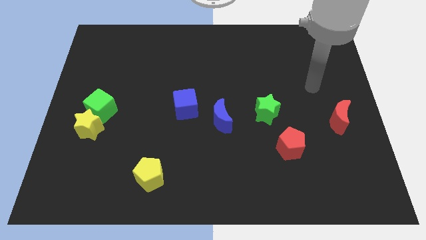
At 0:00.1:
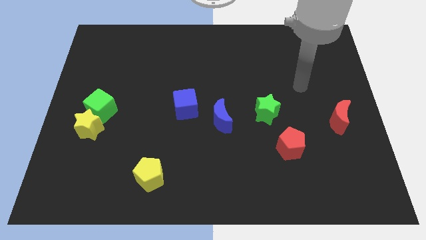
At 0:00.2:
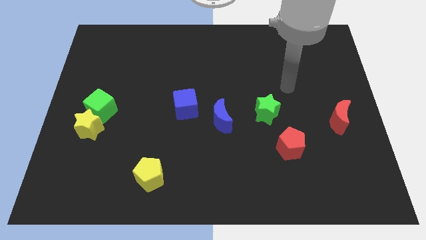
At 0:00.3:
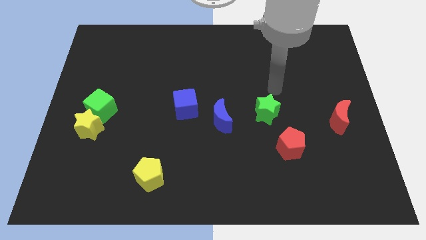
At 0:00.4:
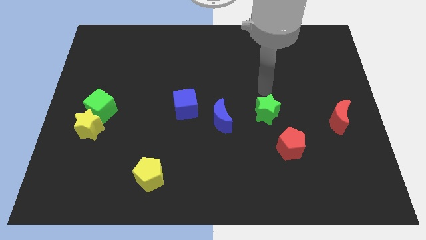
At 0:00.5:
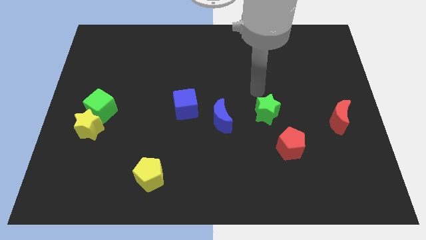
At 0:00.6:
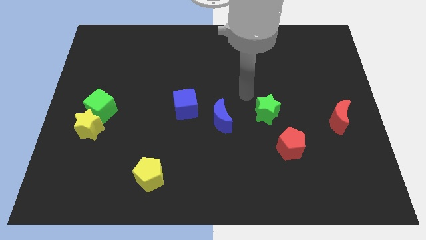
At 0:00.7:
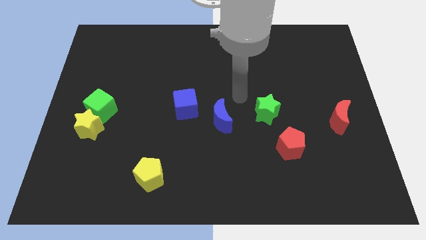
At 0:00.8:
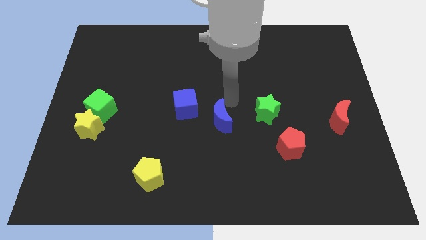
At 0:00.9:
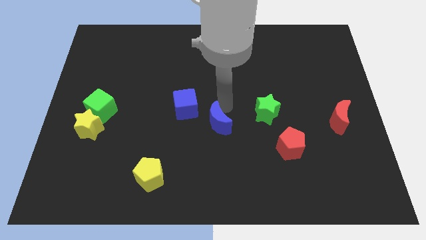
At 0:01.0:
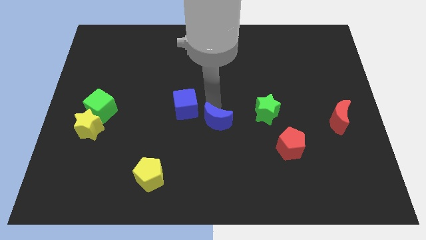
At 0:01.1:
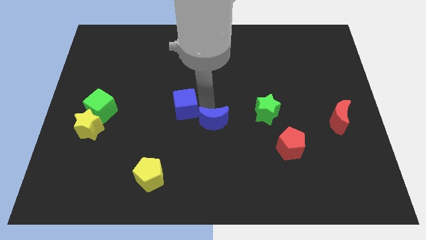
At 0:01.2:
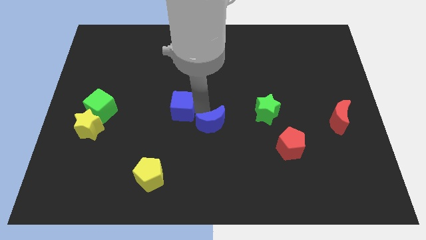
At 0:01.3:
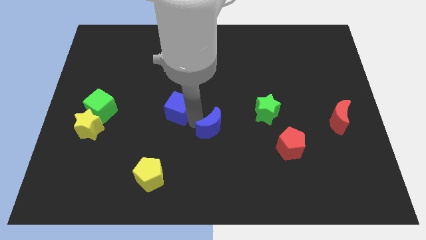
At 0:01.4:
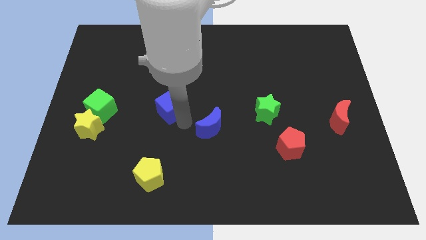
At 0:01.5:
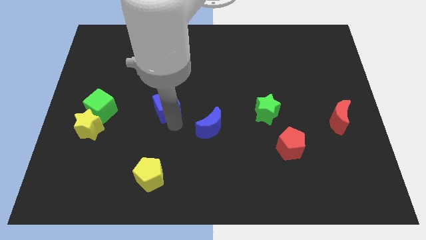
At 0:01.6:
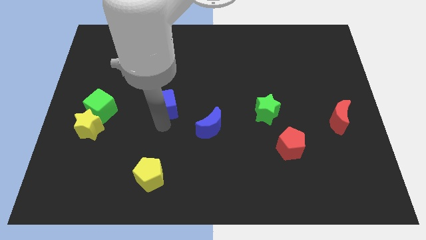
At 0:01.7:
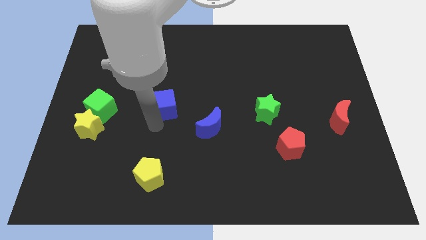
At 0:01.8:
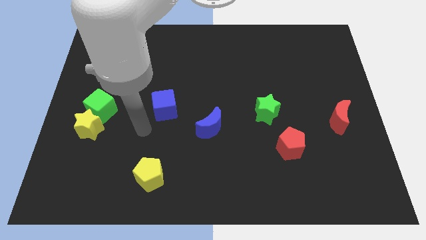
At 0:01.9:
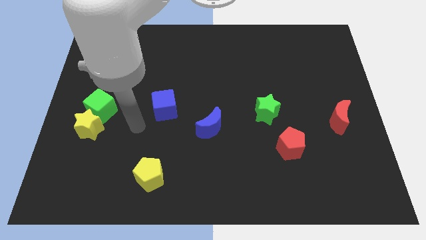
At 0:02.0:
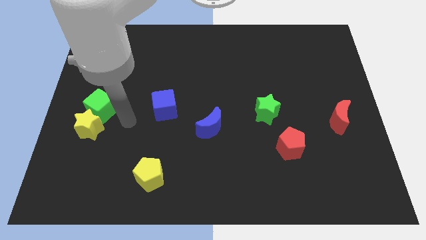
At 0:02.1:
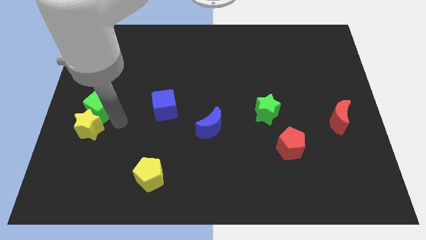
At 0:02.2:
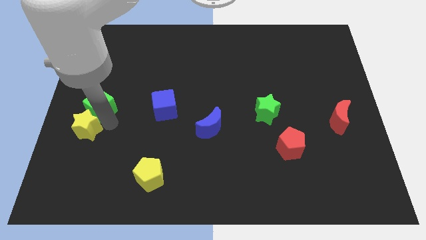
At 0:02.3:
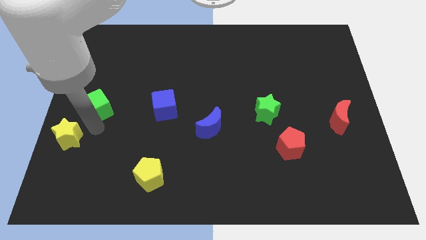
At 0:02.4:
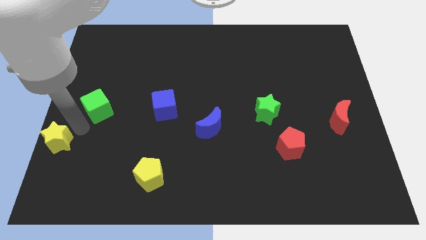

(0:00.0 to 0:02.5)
separate the green cube from the yellow star

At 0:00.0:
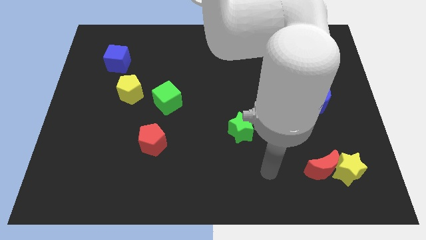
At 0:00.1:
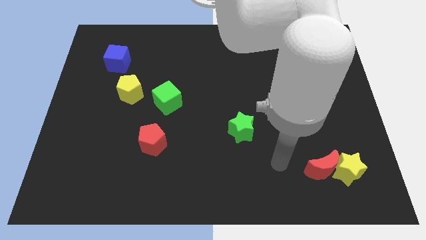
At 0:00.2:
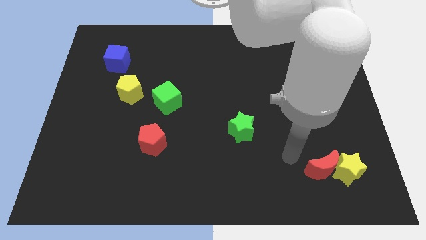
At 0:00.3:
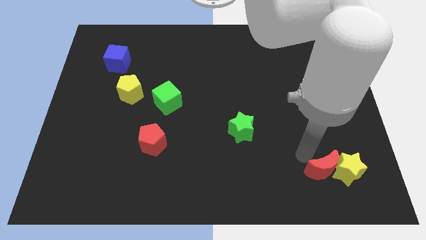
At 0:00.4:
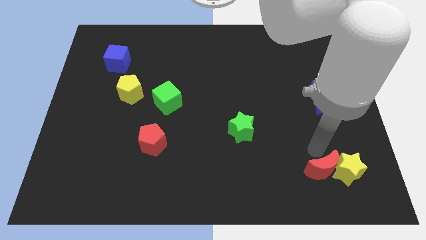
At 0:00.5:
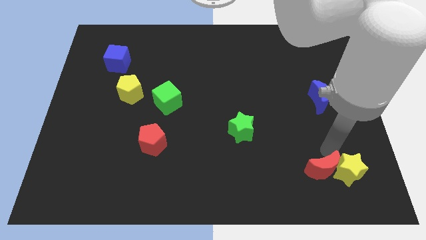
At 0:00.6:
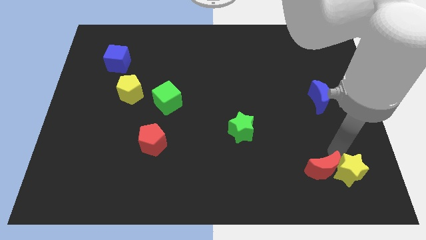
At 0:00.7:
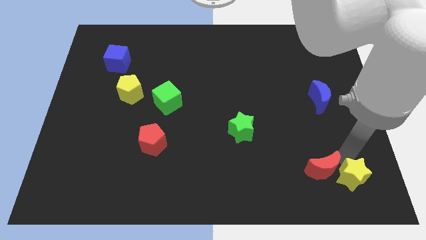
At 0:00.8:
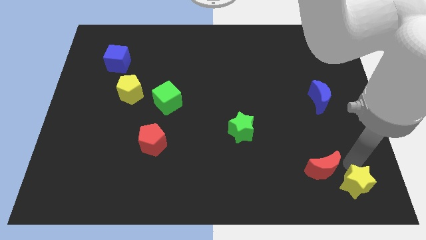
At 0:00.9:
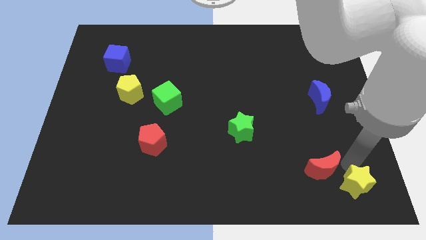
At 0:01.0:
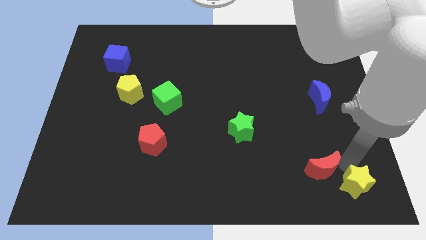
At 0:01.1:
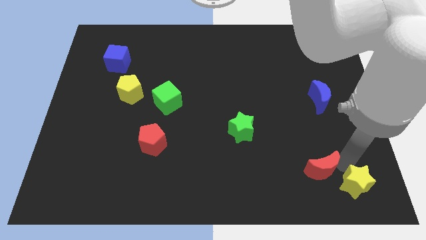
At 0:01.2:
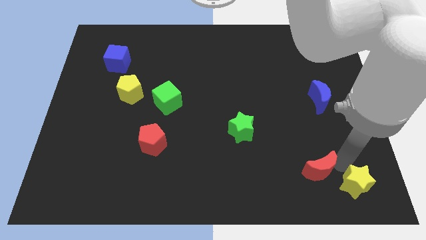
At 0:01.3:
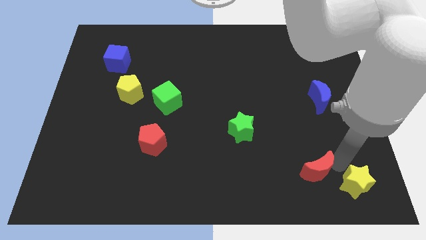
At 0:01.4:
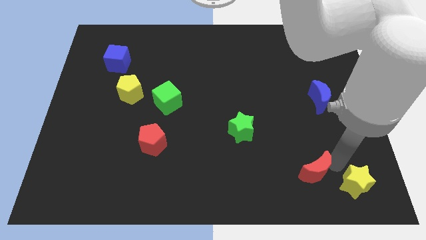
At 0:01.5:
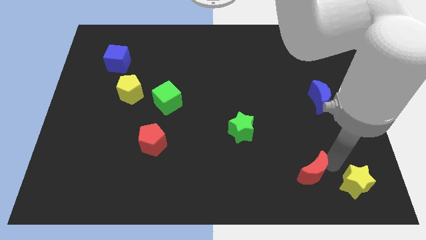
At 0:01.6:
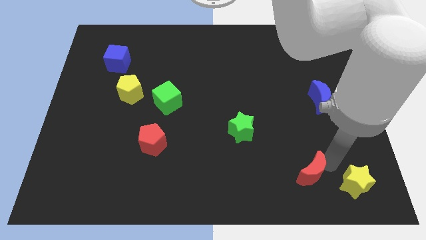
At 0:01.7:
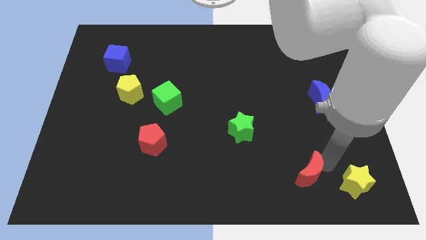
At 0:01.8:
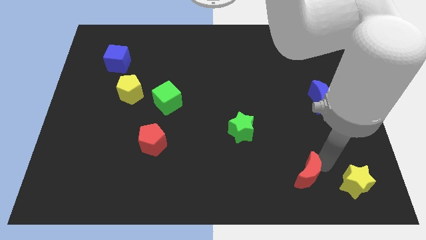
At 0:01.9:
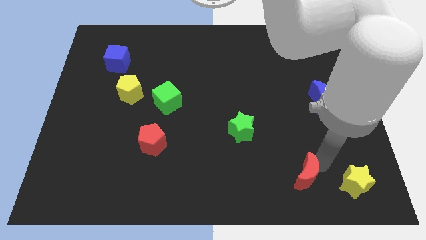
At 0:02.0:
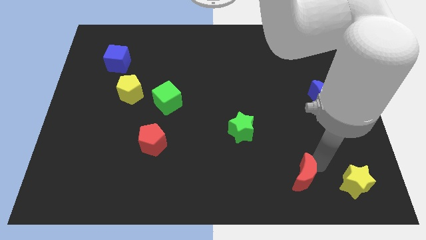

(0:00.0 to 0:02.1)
move the red moon away from the yellow star

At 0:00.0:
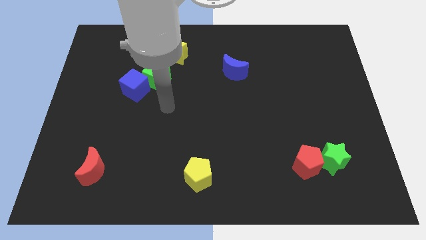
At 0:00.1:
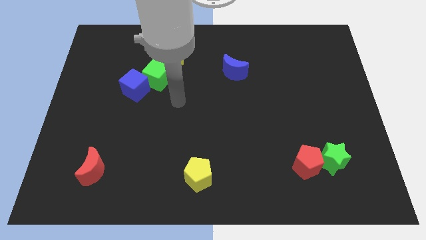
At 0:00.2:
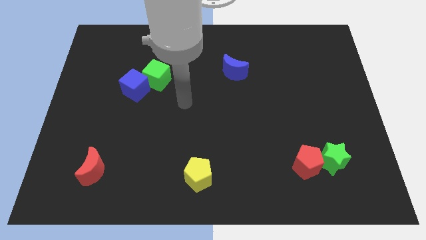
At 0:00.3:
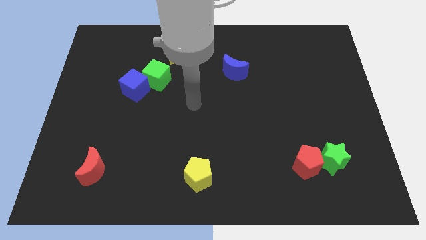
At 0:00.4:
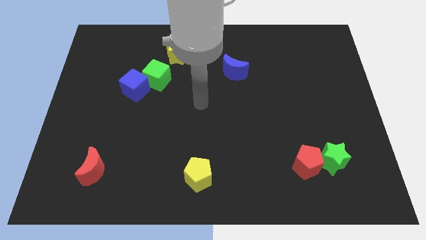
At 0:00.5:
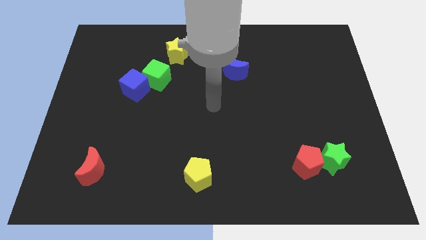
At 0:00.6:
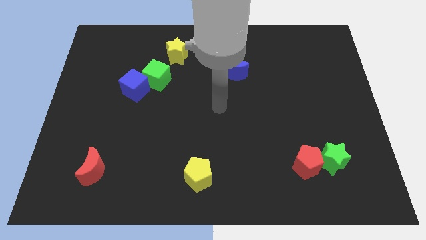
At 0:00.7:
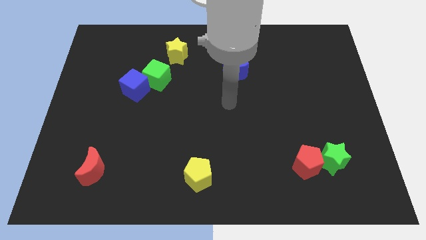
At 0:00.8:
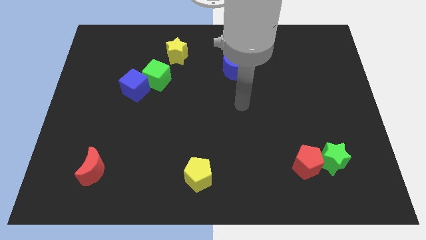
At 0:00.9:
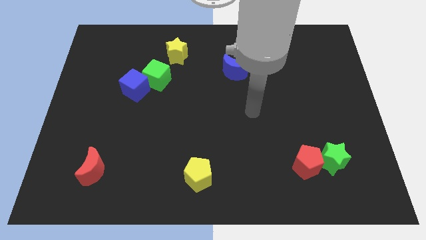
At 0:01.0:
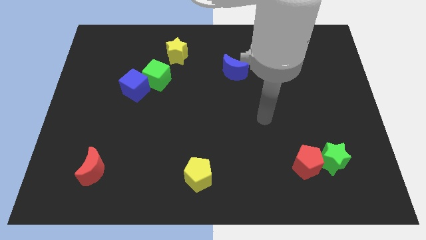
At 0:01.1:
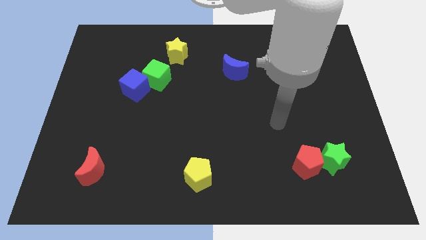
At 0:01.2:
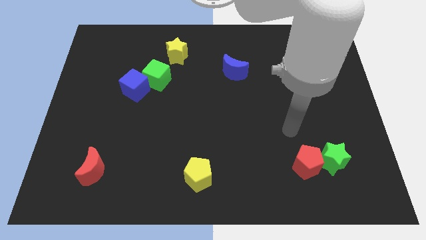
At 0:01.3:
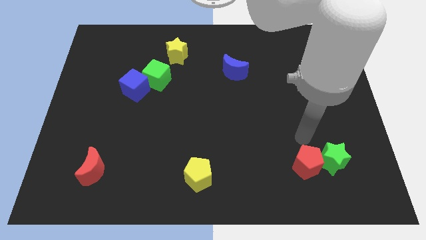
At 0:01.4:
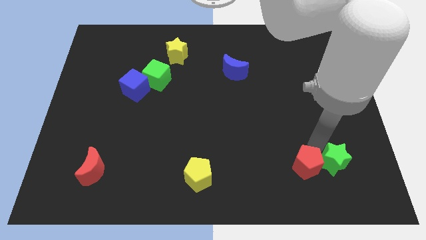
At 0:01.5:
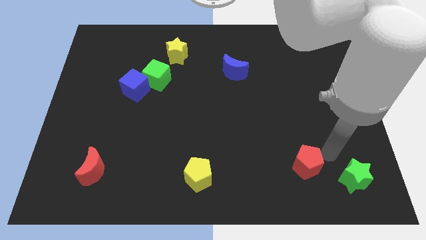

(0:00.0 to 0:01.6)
pull the red pentagon apart from the green star

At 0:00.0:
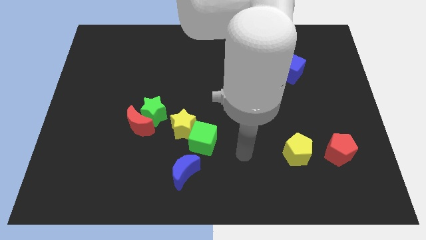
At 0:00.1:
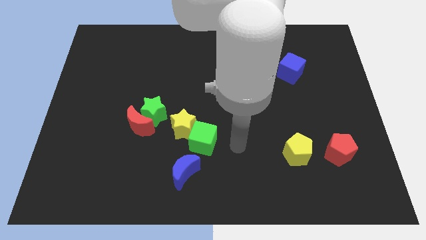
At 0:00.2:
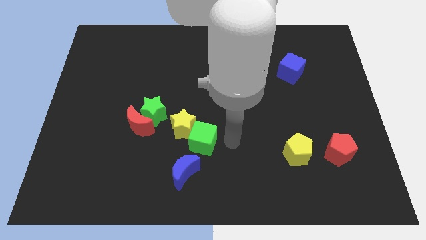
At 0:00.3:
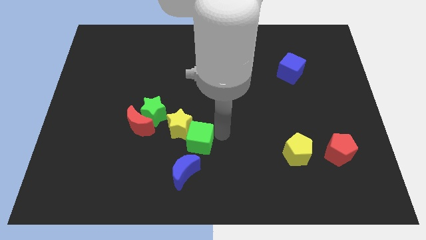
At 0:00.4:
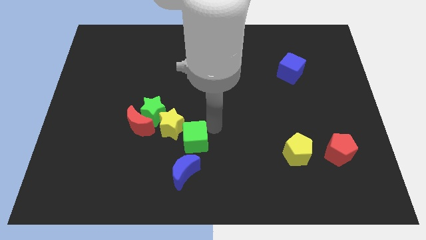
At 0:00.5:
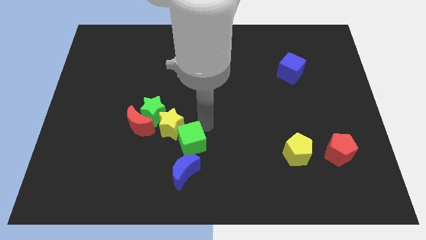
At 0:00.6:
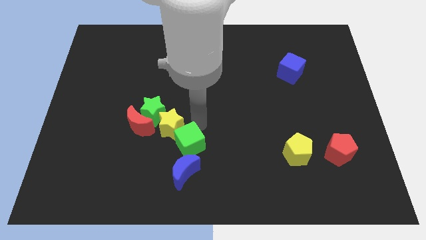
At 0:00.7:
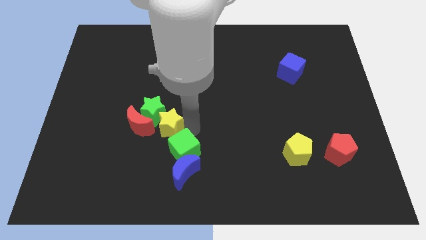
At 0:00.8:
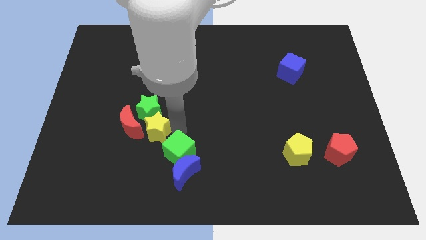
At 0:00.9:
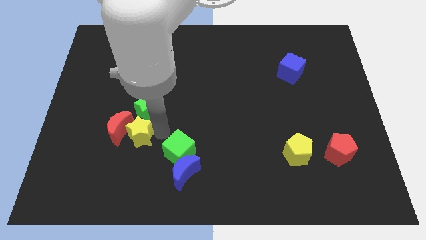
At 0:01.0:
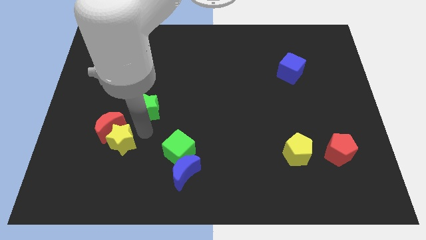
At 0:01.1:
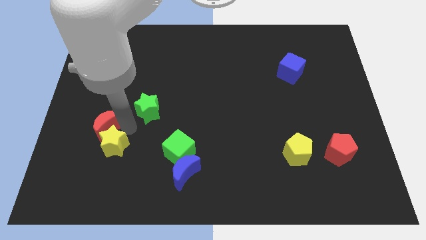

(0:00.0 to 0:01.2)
move the green star away from the red moon and yellow star

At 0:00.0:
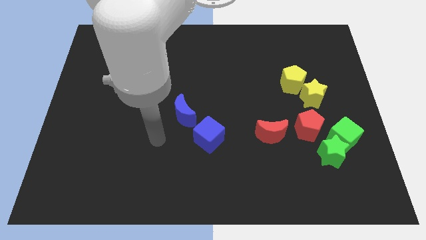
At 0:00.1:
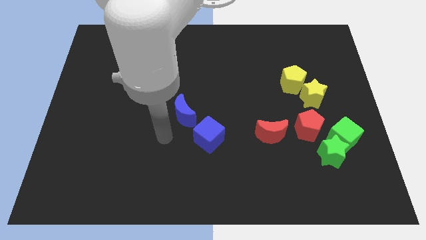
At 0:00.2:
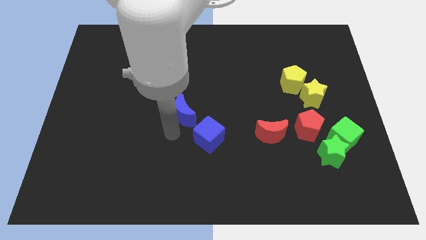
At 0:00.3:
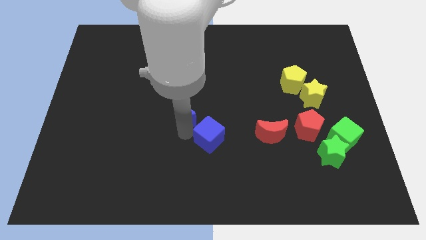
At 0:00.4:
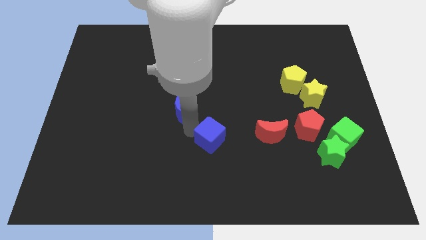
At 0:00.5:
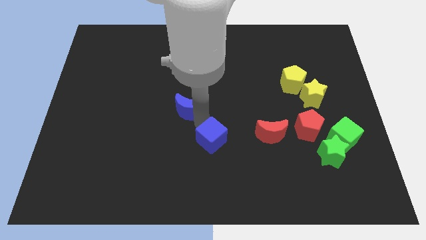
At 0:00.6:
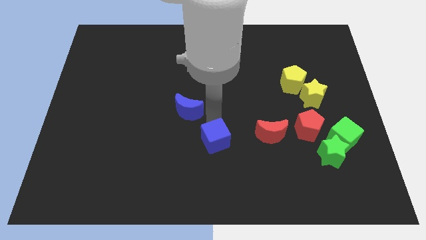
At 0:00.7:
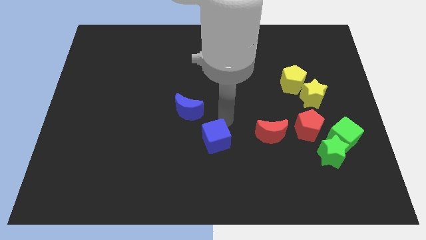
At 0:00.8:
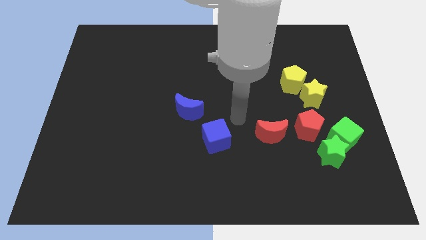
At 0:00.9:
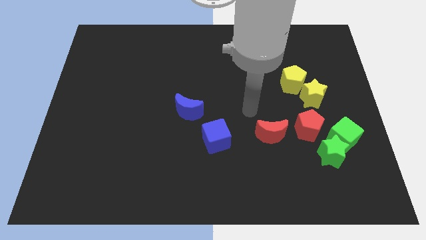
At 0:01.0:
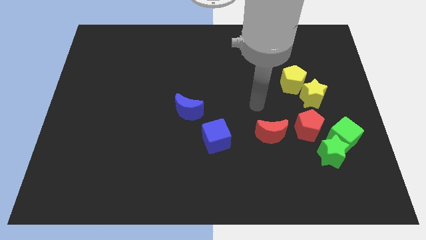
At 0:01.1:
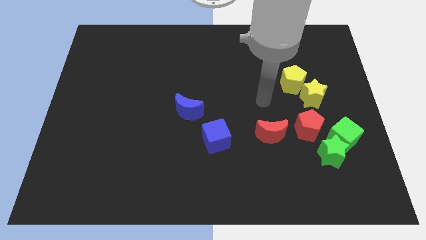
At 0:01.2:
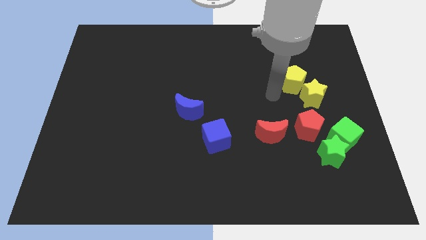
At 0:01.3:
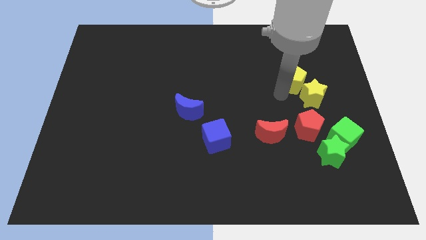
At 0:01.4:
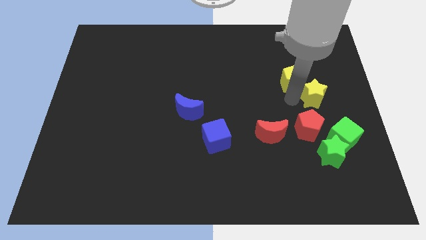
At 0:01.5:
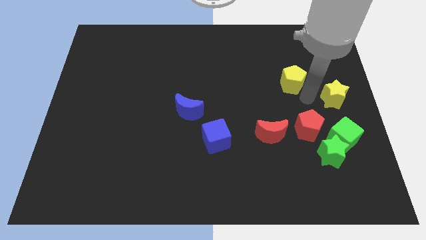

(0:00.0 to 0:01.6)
separate the yellow pentagon from the yellow star

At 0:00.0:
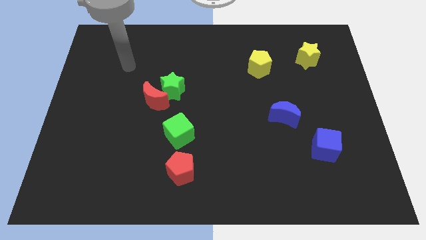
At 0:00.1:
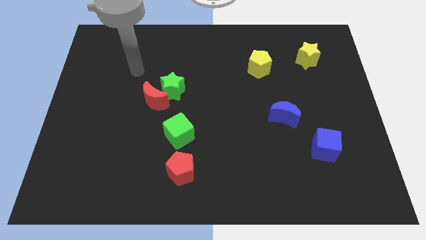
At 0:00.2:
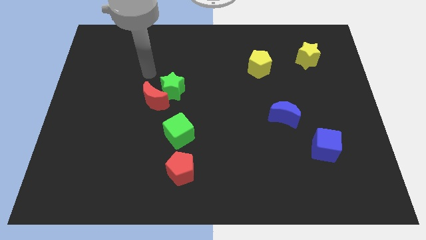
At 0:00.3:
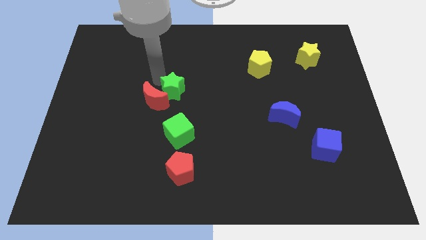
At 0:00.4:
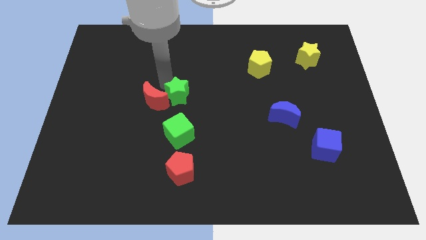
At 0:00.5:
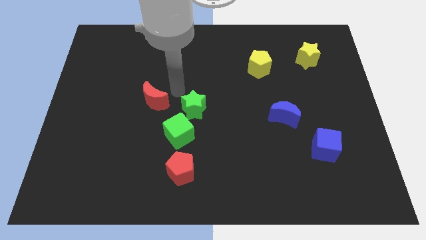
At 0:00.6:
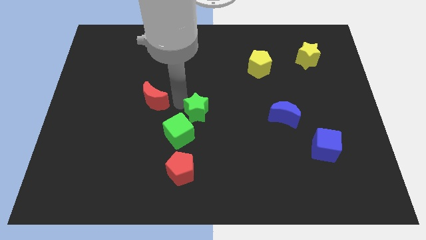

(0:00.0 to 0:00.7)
separate the red moon from the green star
